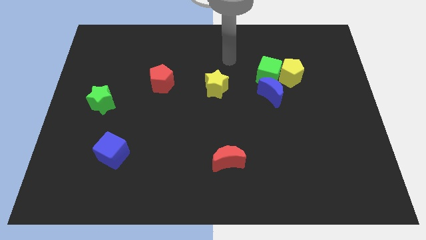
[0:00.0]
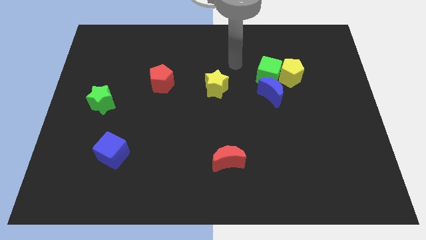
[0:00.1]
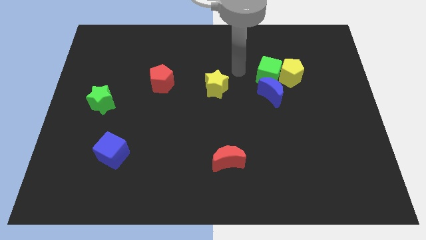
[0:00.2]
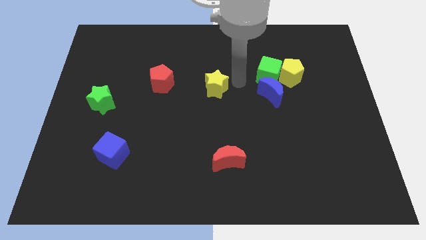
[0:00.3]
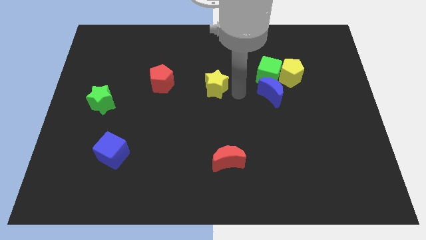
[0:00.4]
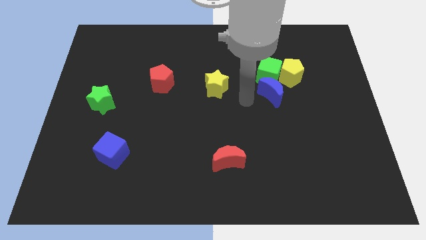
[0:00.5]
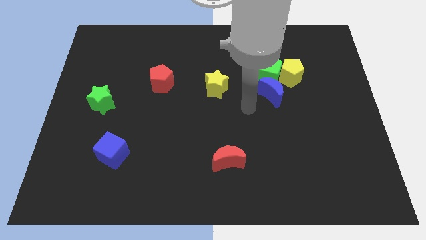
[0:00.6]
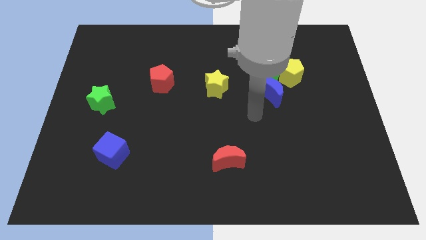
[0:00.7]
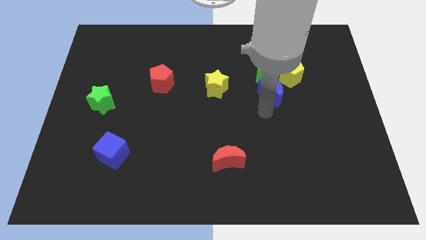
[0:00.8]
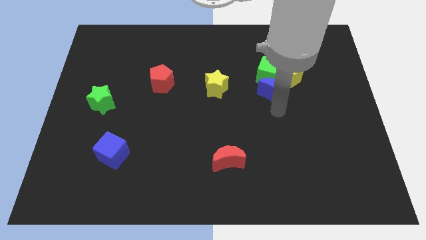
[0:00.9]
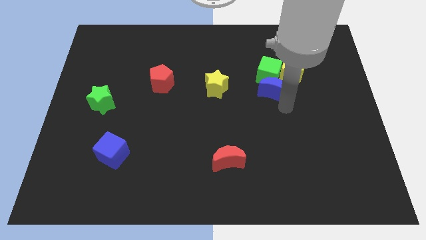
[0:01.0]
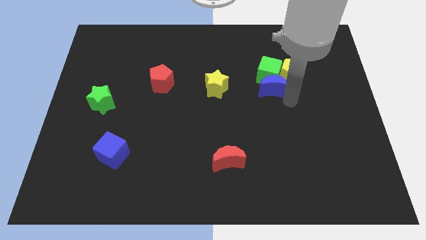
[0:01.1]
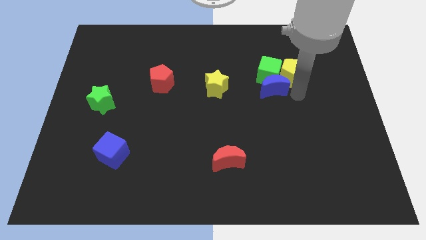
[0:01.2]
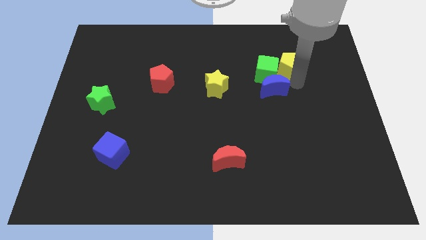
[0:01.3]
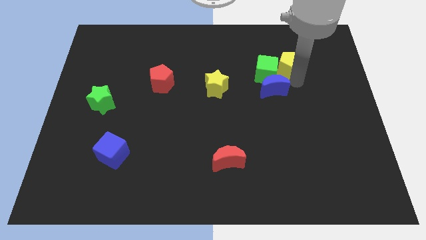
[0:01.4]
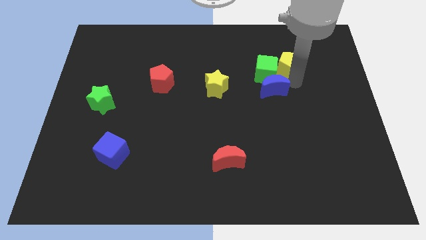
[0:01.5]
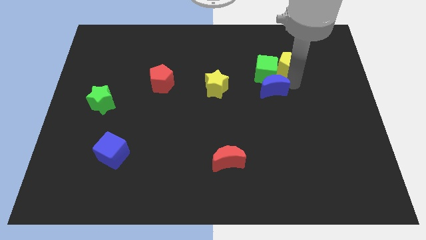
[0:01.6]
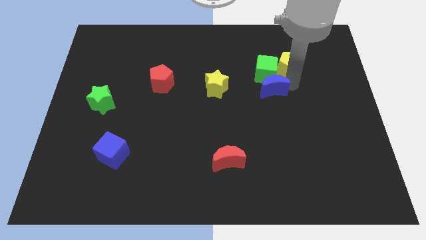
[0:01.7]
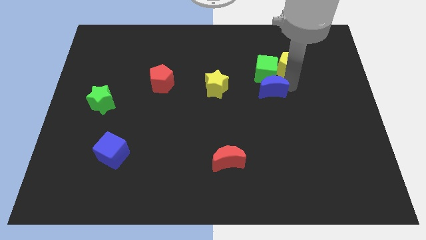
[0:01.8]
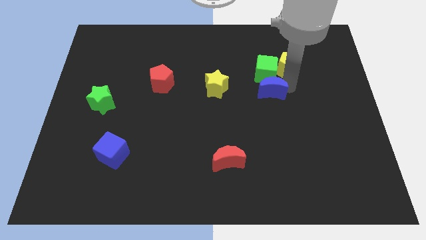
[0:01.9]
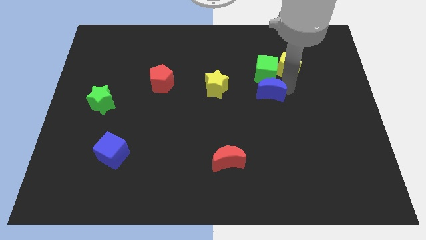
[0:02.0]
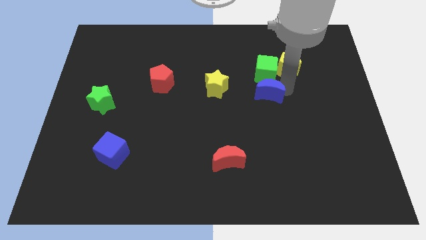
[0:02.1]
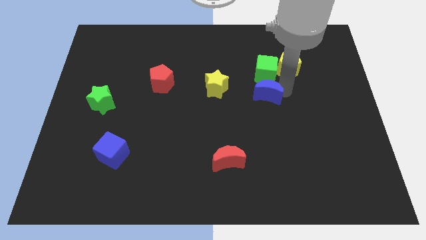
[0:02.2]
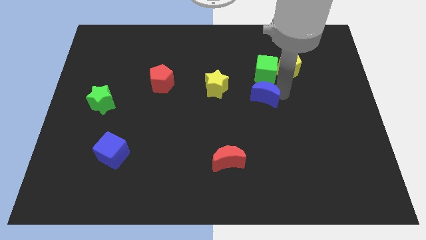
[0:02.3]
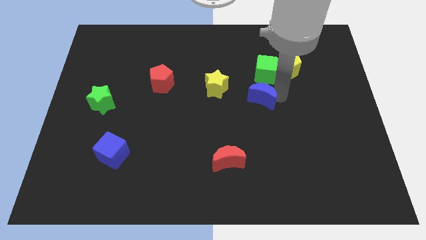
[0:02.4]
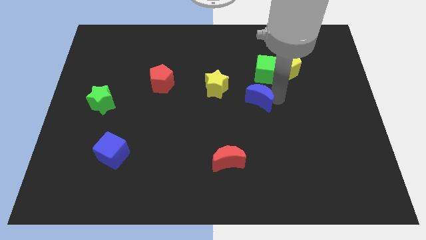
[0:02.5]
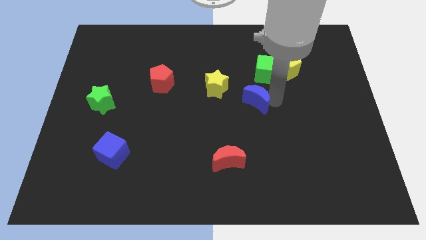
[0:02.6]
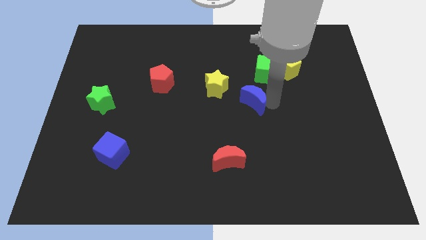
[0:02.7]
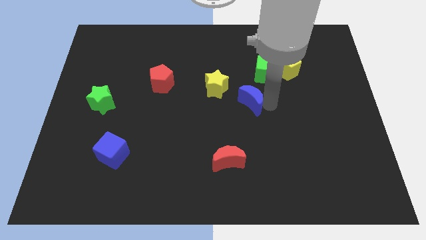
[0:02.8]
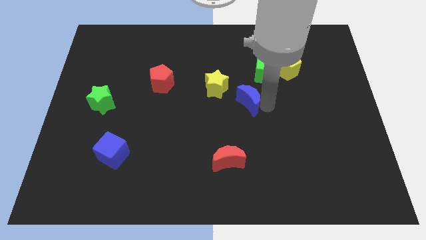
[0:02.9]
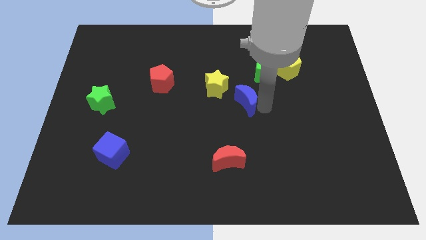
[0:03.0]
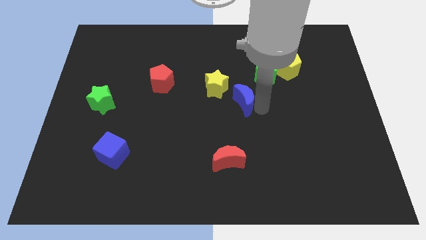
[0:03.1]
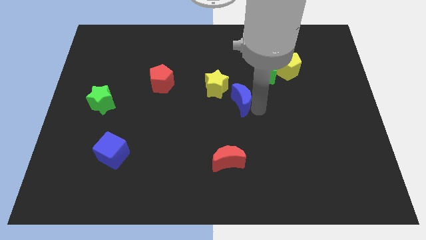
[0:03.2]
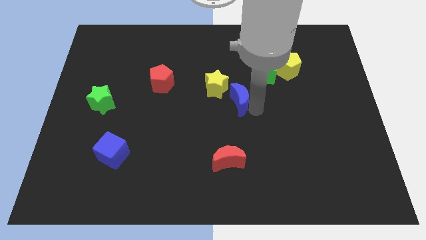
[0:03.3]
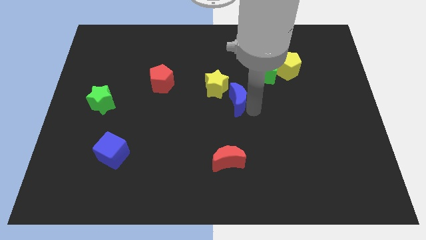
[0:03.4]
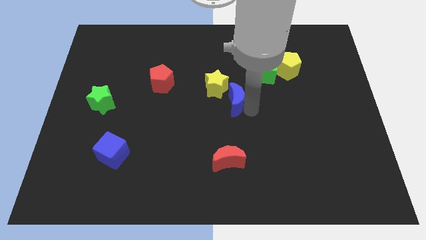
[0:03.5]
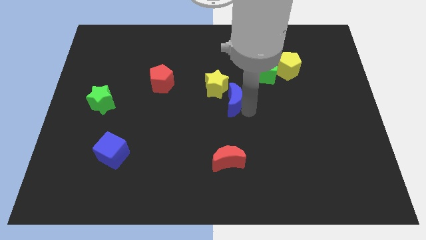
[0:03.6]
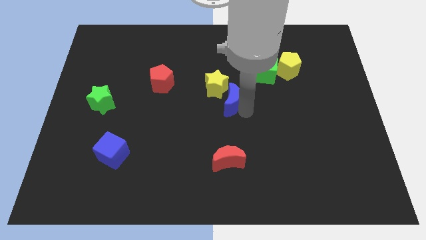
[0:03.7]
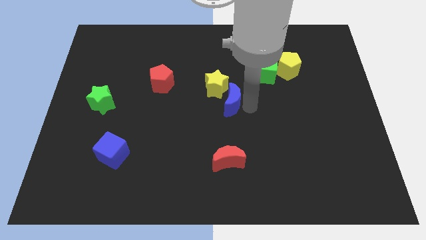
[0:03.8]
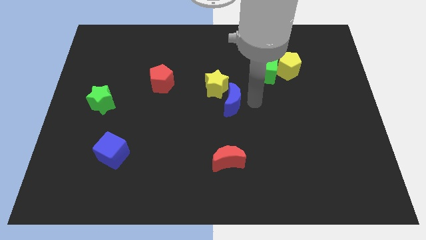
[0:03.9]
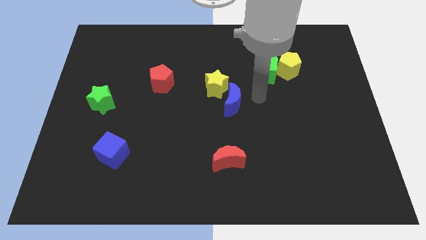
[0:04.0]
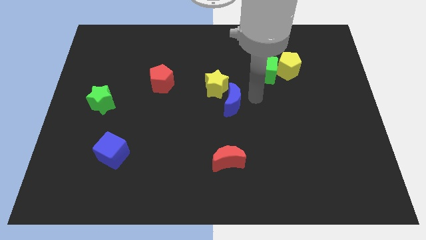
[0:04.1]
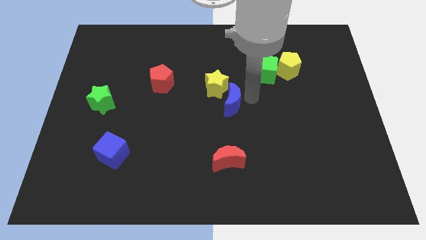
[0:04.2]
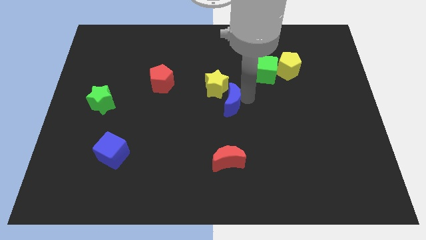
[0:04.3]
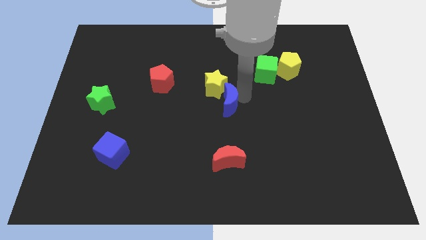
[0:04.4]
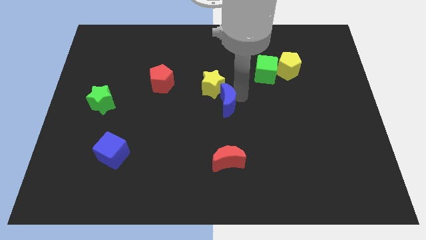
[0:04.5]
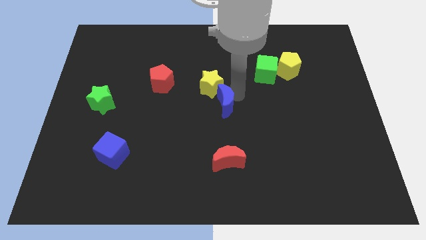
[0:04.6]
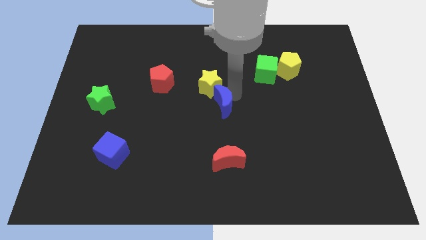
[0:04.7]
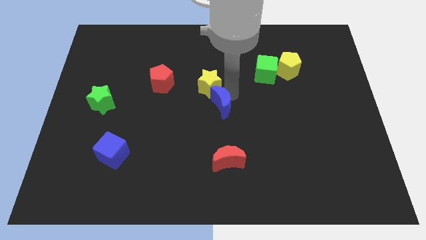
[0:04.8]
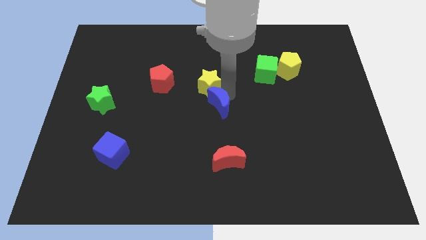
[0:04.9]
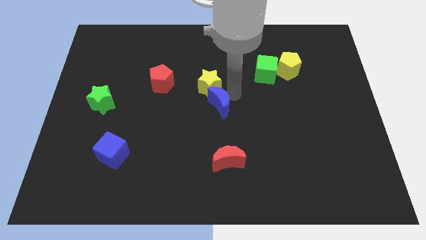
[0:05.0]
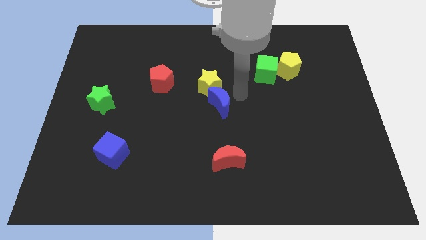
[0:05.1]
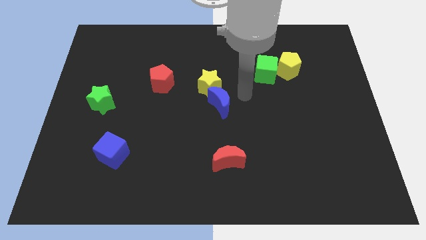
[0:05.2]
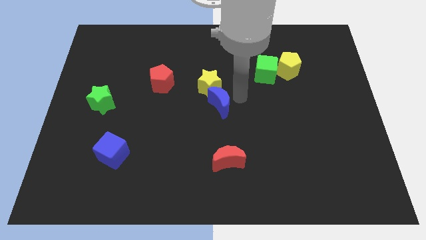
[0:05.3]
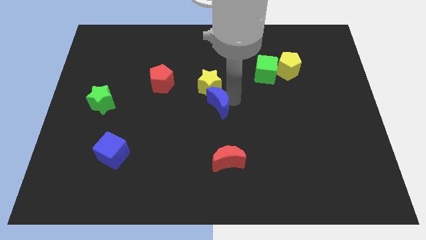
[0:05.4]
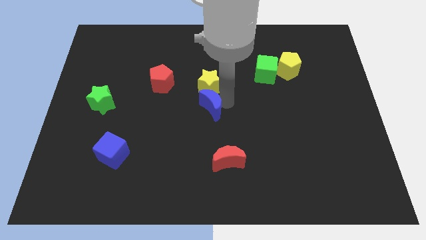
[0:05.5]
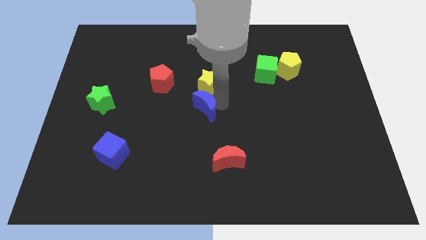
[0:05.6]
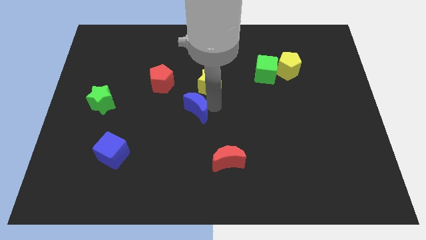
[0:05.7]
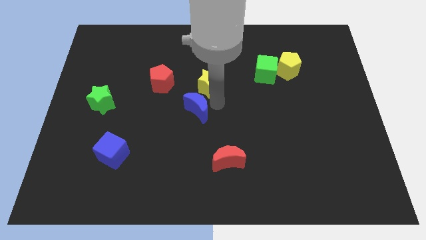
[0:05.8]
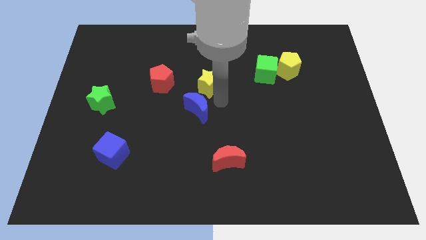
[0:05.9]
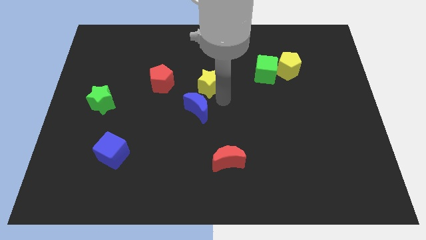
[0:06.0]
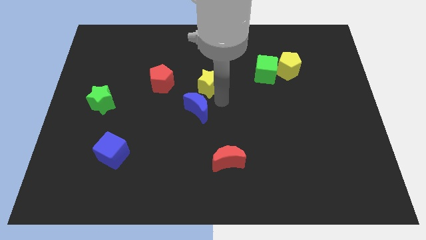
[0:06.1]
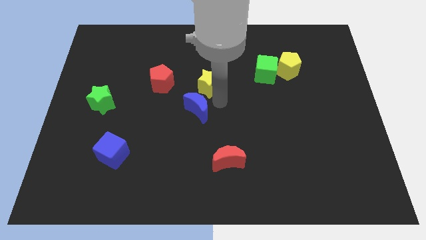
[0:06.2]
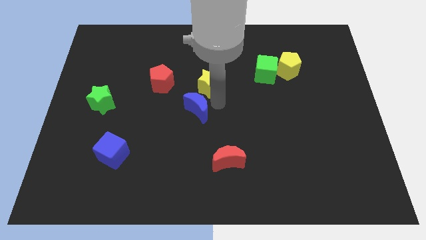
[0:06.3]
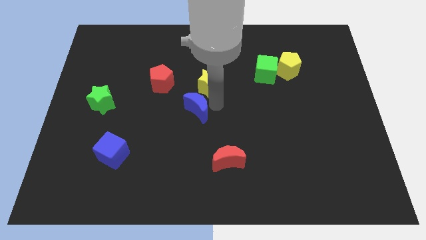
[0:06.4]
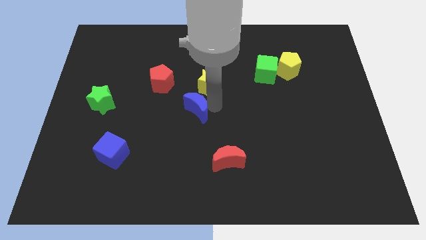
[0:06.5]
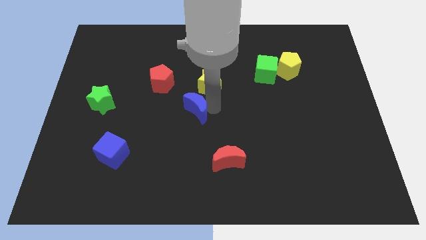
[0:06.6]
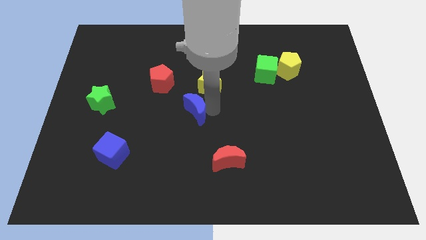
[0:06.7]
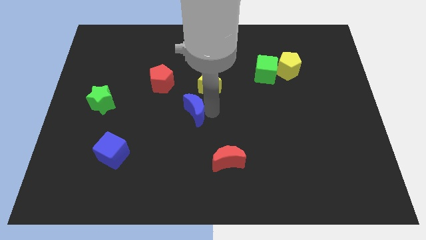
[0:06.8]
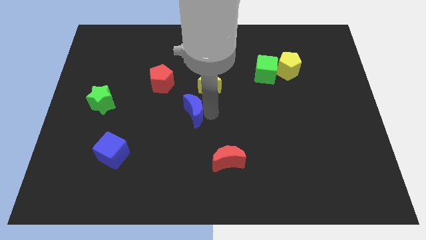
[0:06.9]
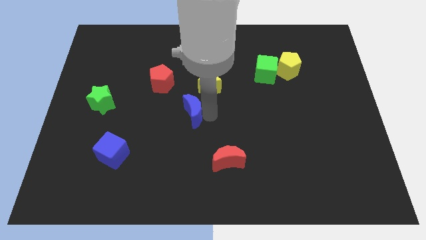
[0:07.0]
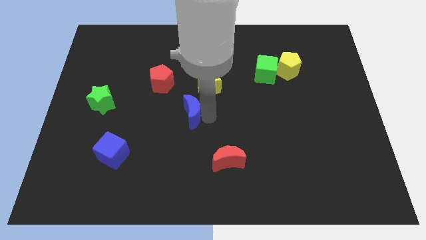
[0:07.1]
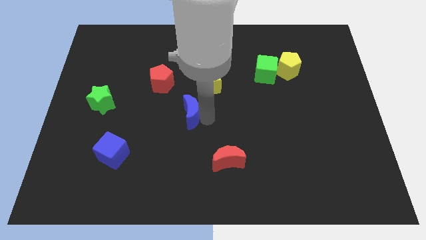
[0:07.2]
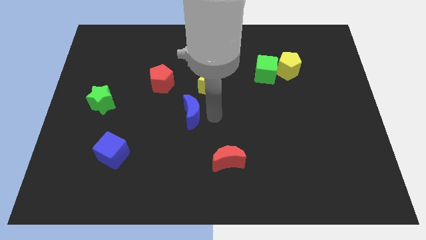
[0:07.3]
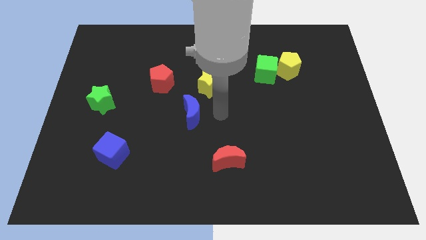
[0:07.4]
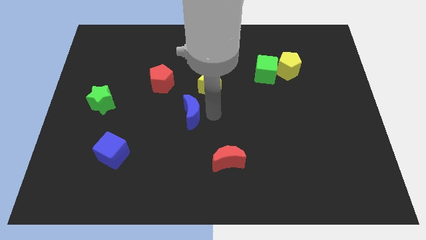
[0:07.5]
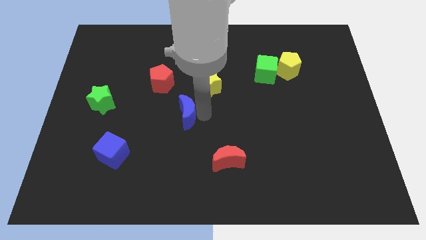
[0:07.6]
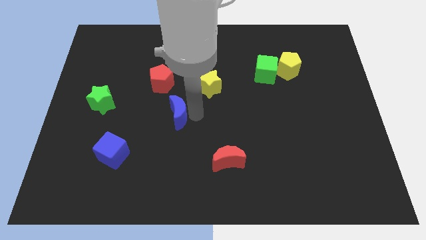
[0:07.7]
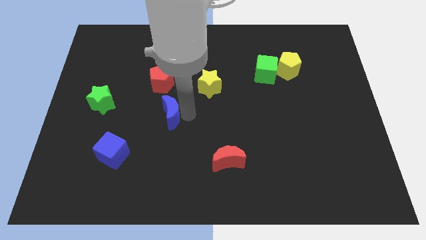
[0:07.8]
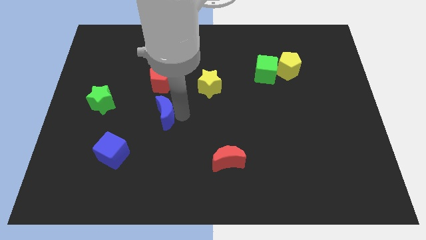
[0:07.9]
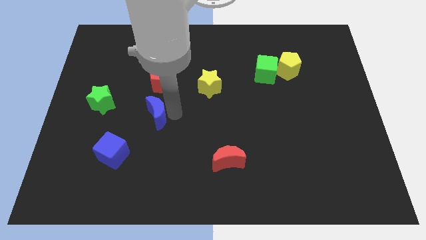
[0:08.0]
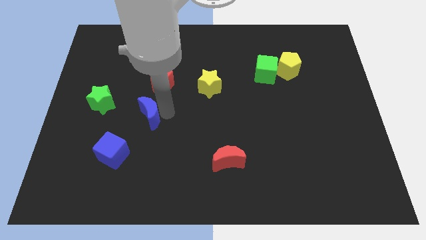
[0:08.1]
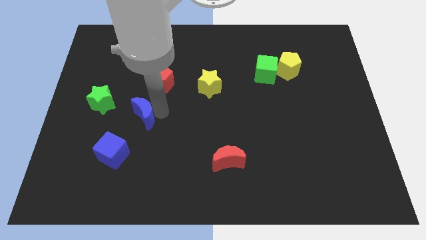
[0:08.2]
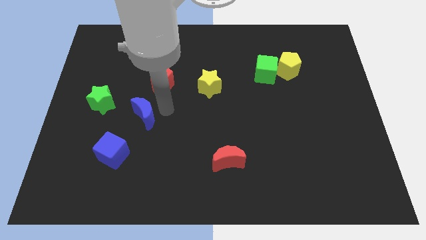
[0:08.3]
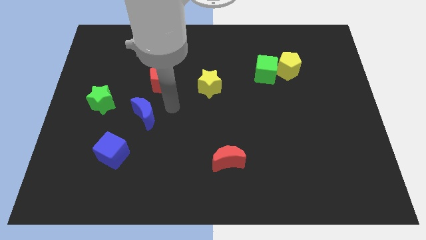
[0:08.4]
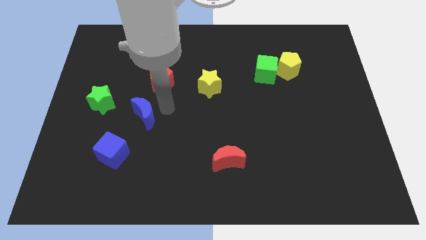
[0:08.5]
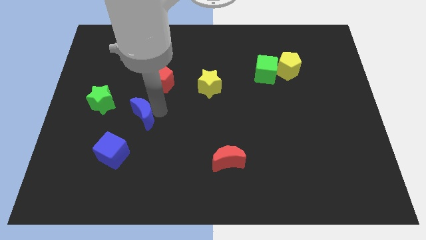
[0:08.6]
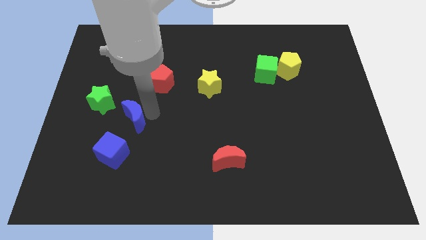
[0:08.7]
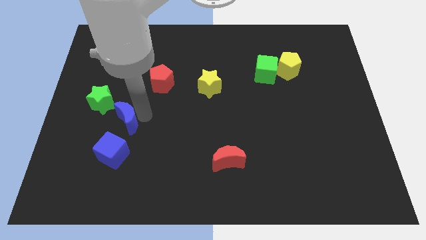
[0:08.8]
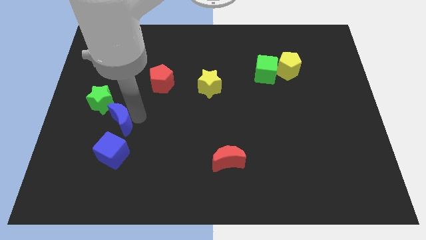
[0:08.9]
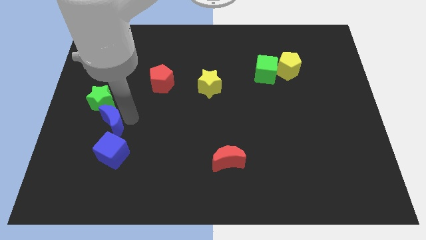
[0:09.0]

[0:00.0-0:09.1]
put the blue moon to the top left of the blue cube
